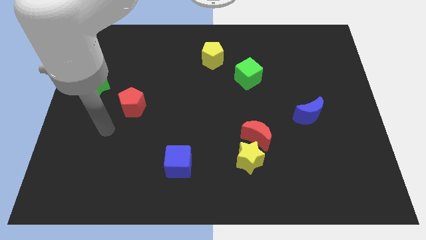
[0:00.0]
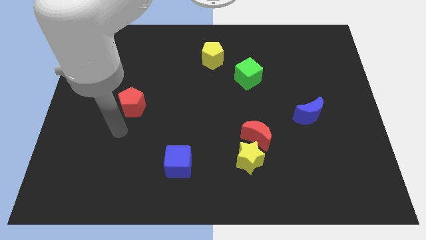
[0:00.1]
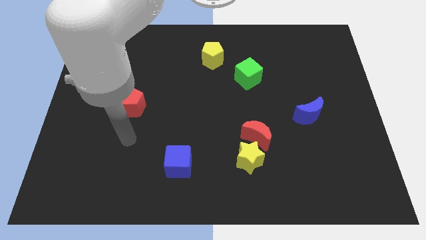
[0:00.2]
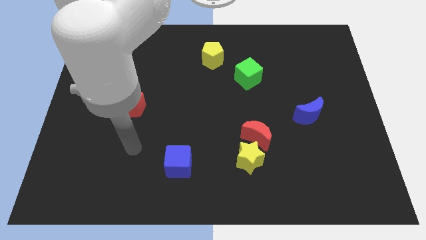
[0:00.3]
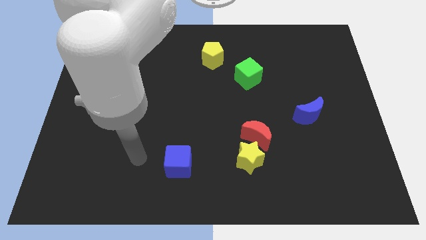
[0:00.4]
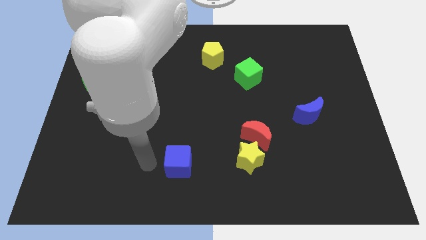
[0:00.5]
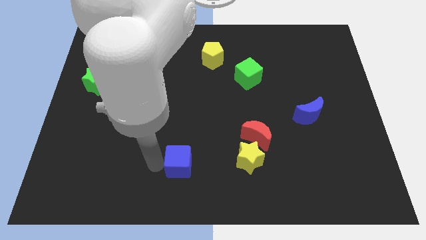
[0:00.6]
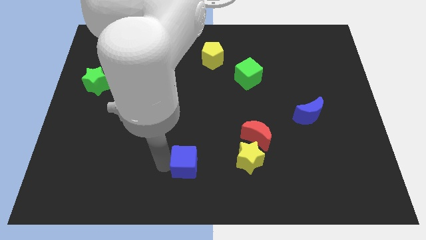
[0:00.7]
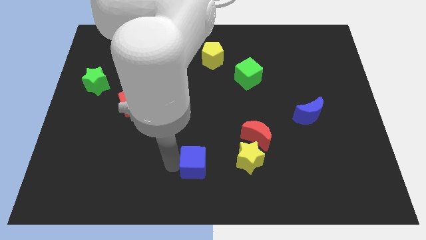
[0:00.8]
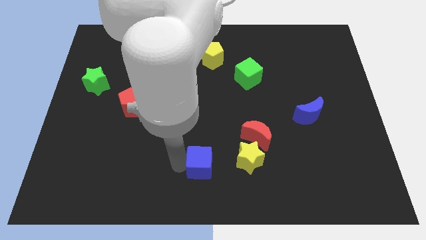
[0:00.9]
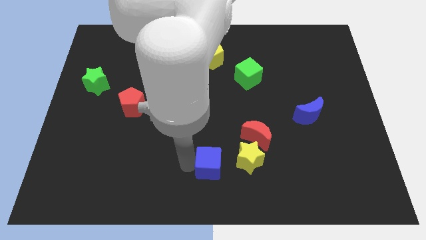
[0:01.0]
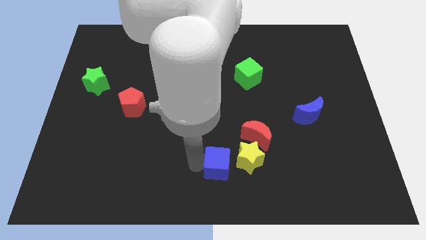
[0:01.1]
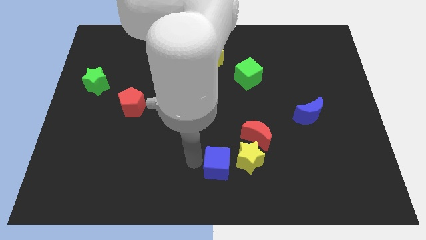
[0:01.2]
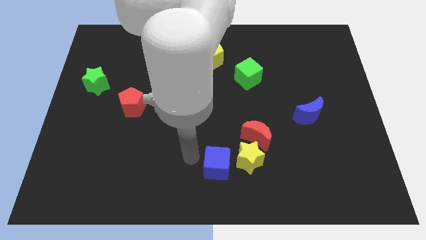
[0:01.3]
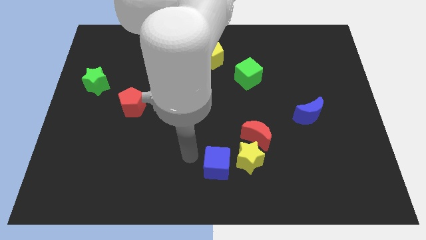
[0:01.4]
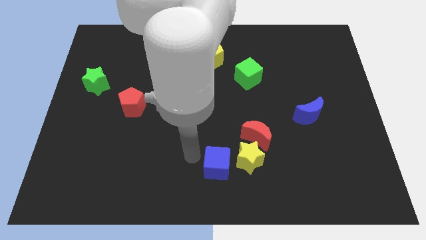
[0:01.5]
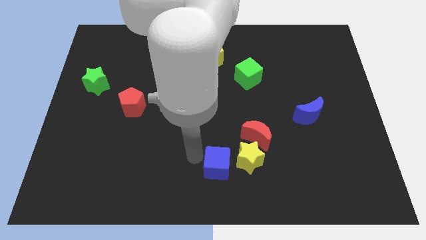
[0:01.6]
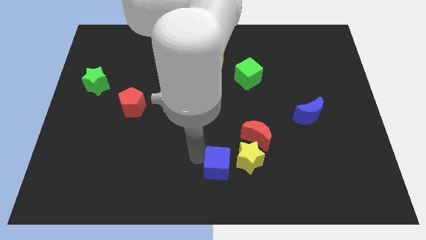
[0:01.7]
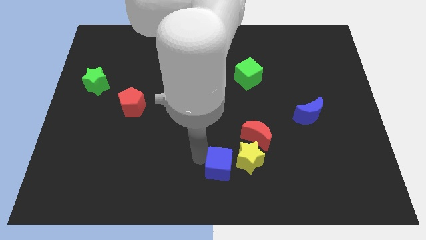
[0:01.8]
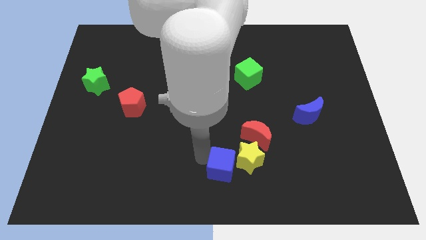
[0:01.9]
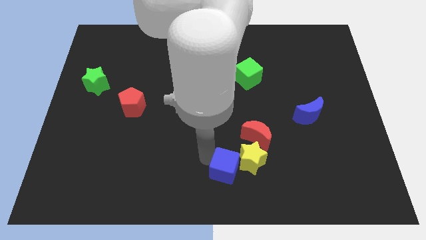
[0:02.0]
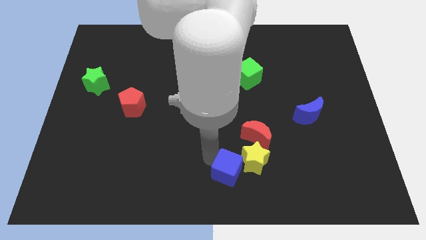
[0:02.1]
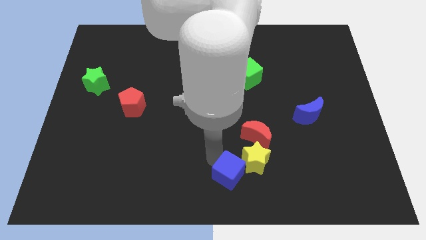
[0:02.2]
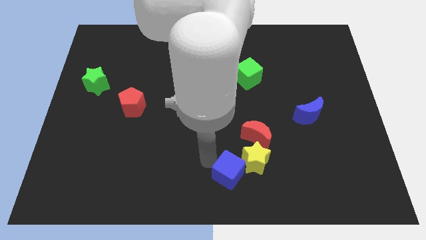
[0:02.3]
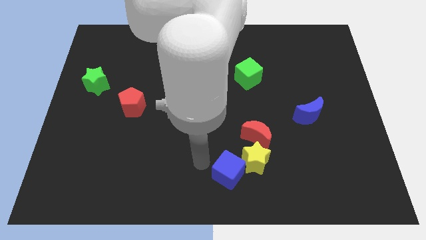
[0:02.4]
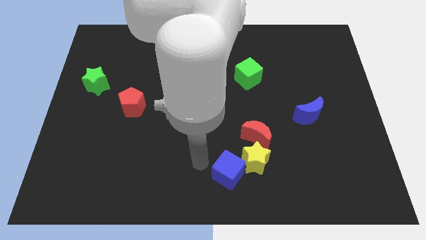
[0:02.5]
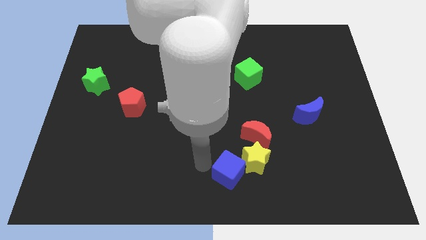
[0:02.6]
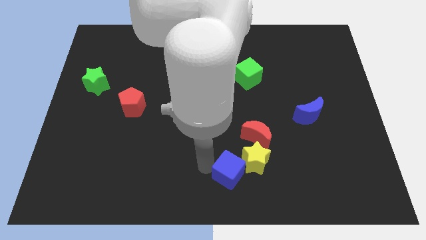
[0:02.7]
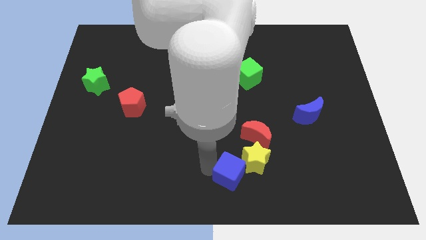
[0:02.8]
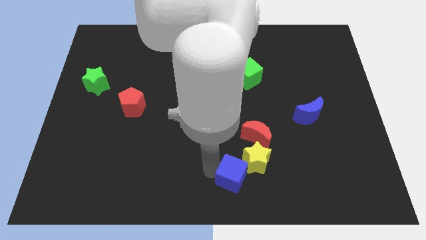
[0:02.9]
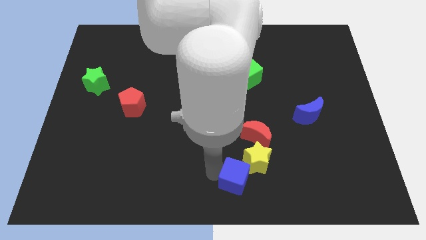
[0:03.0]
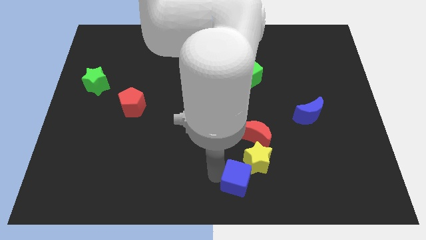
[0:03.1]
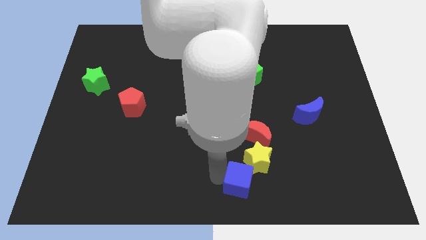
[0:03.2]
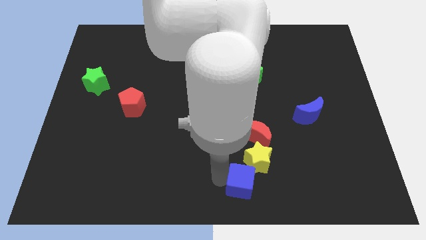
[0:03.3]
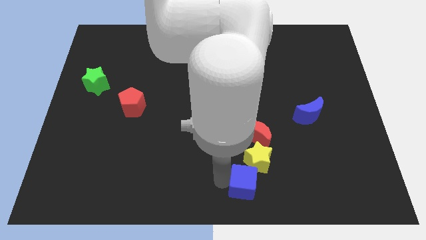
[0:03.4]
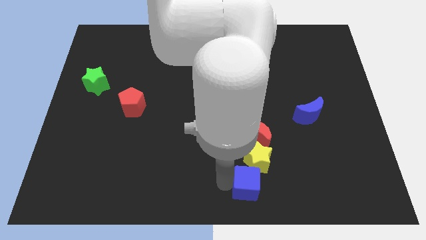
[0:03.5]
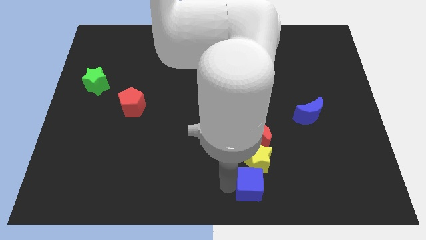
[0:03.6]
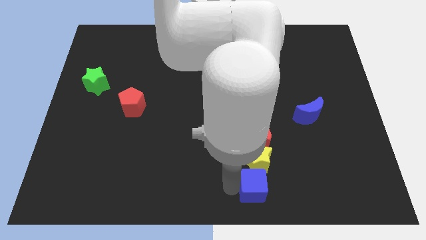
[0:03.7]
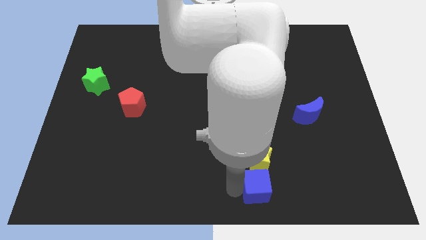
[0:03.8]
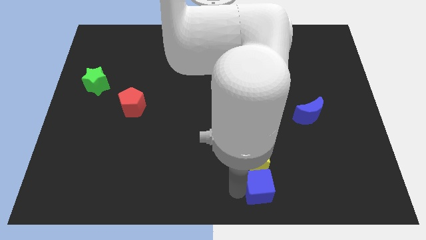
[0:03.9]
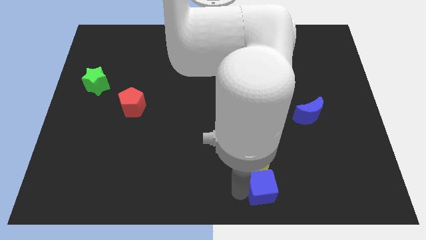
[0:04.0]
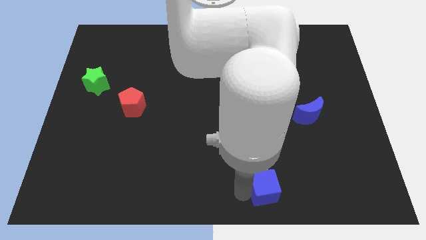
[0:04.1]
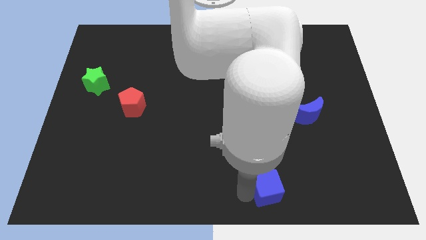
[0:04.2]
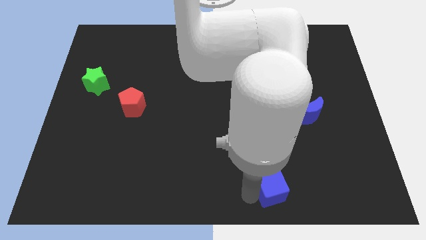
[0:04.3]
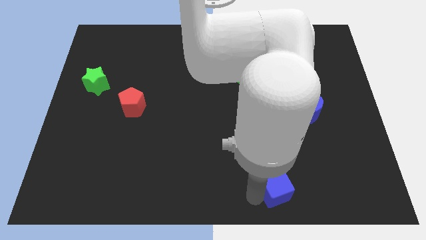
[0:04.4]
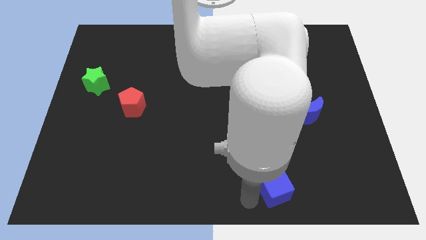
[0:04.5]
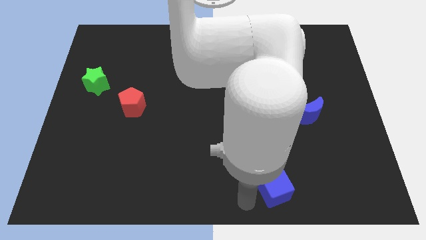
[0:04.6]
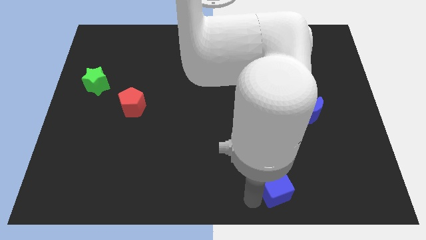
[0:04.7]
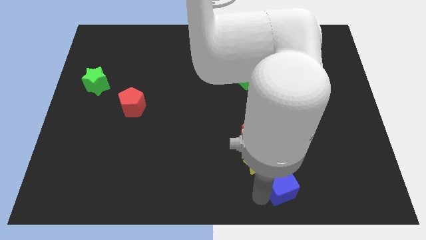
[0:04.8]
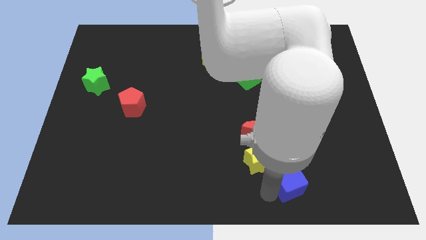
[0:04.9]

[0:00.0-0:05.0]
slide the blue cube to the right

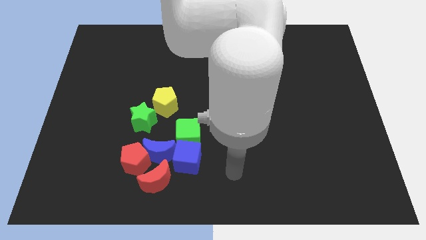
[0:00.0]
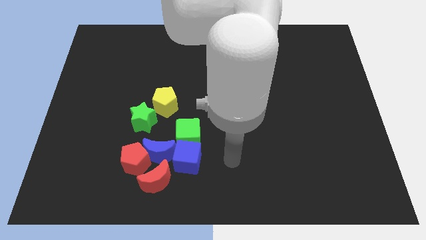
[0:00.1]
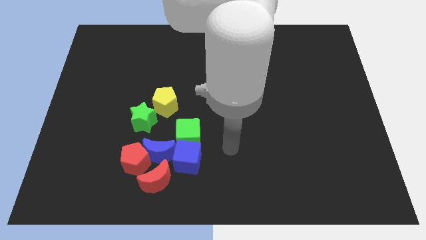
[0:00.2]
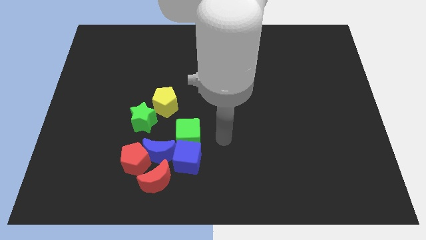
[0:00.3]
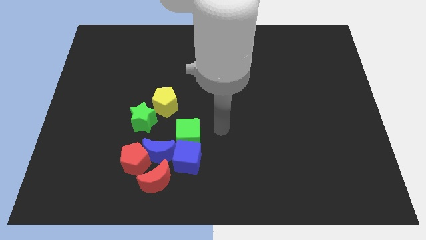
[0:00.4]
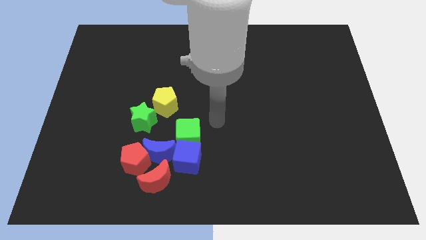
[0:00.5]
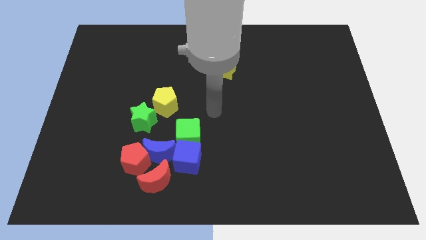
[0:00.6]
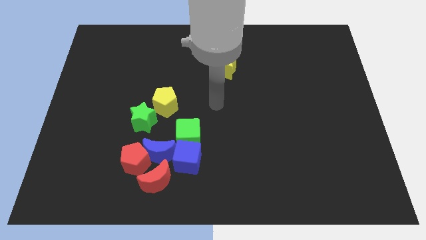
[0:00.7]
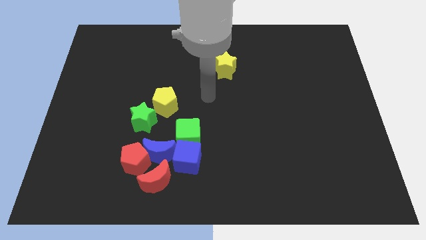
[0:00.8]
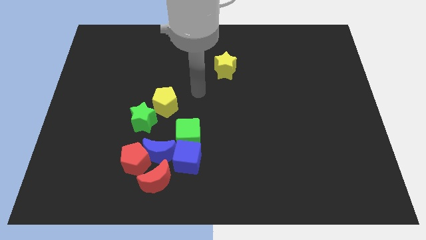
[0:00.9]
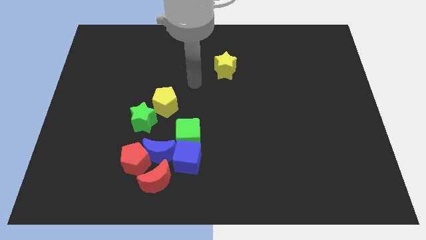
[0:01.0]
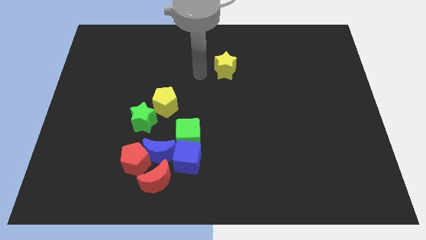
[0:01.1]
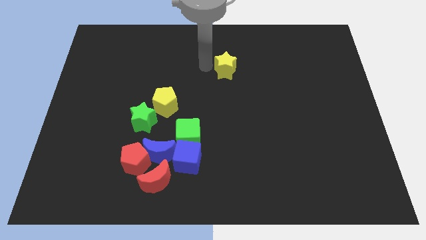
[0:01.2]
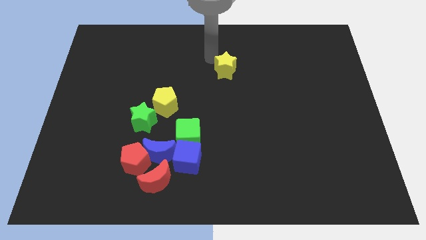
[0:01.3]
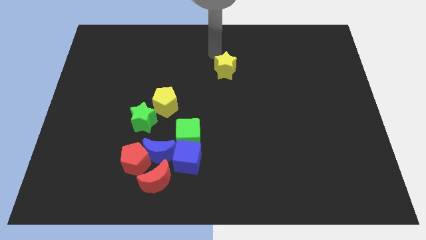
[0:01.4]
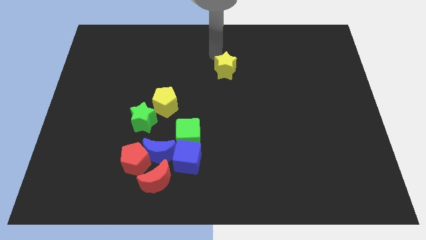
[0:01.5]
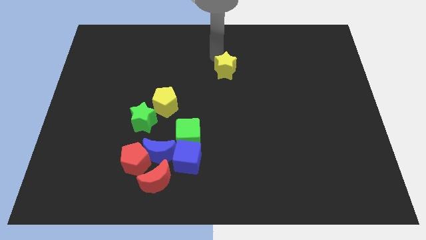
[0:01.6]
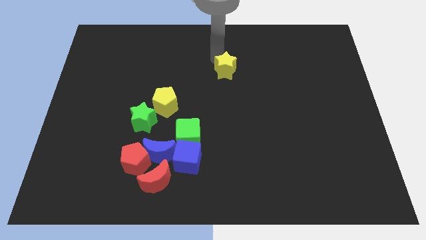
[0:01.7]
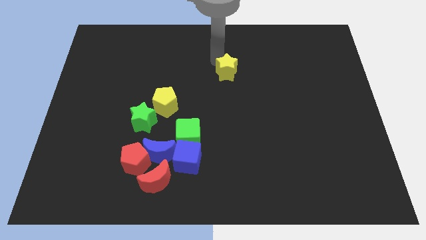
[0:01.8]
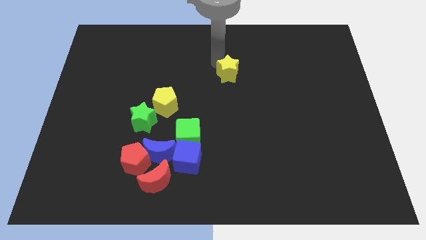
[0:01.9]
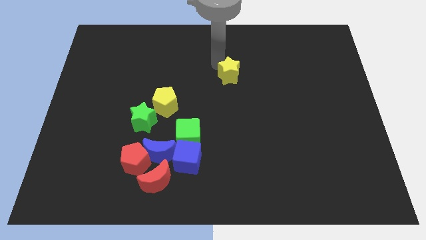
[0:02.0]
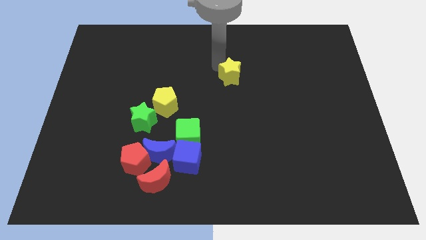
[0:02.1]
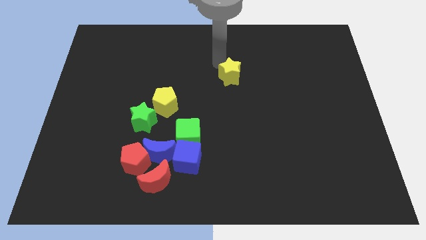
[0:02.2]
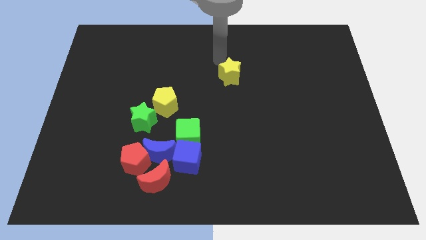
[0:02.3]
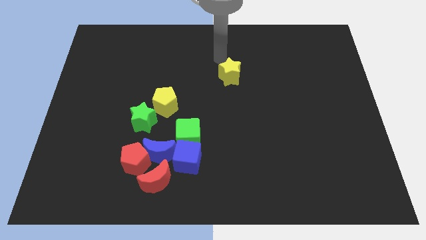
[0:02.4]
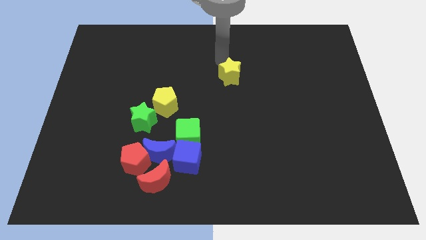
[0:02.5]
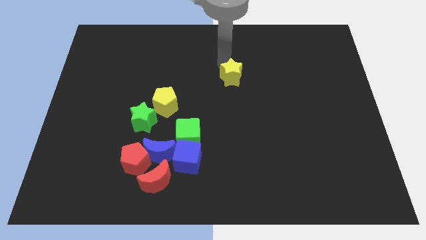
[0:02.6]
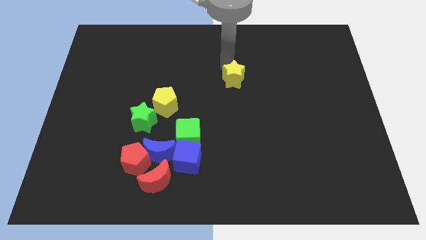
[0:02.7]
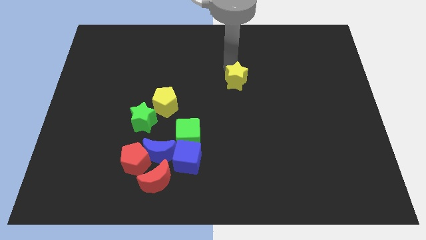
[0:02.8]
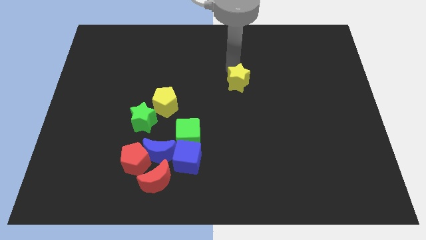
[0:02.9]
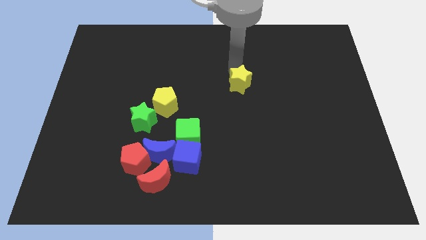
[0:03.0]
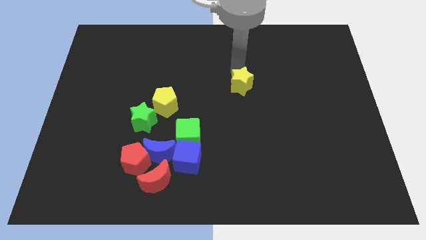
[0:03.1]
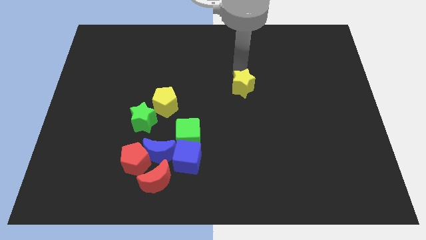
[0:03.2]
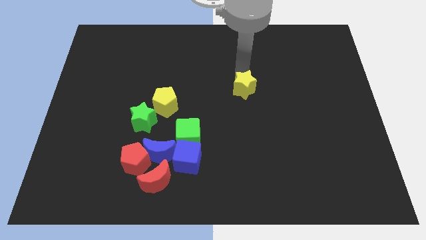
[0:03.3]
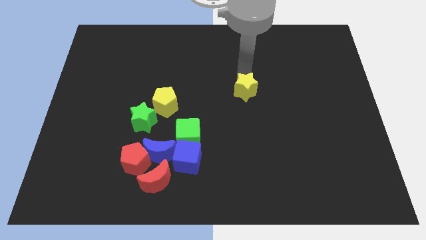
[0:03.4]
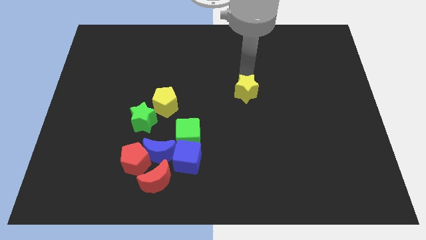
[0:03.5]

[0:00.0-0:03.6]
push the yellow star a little downwards
